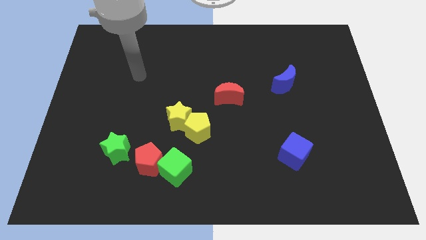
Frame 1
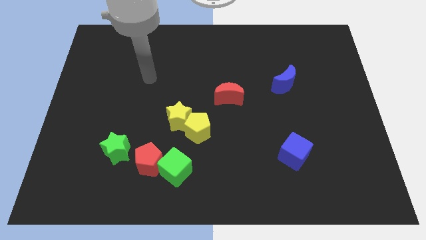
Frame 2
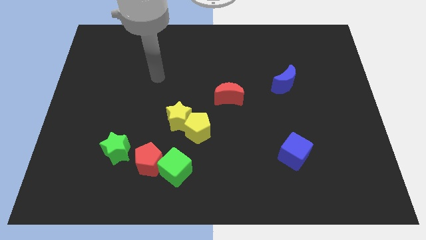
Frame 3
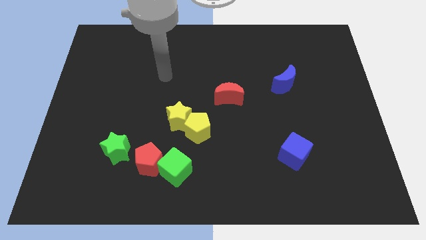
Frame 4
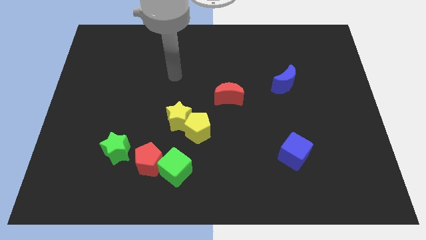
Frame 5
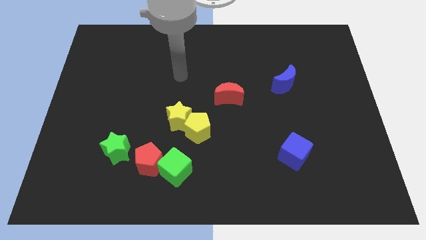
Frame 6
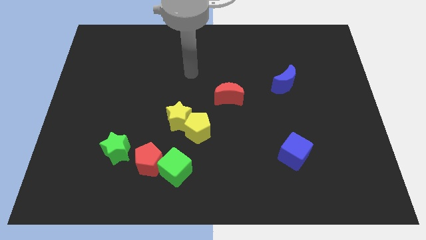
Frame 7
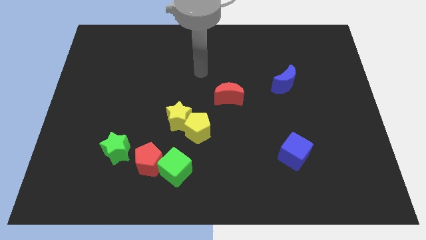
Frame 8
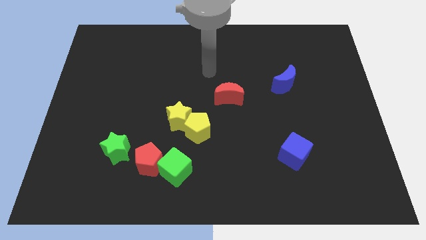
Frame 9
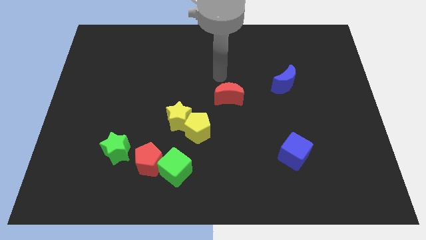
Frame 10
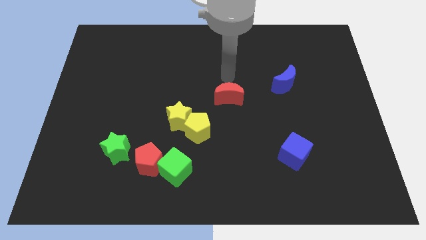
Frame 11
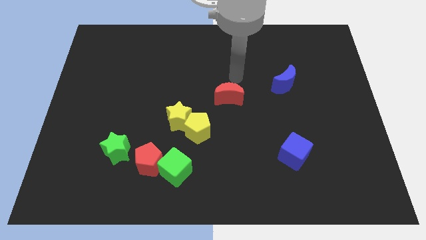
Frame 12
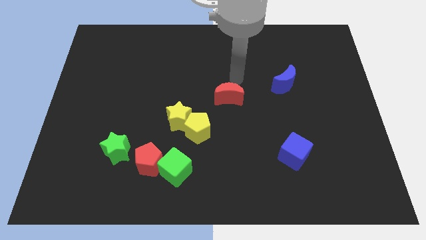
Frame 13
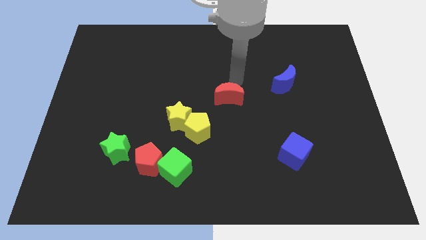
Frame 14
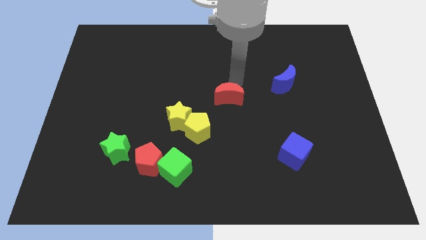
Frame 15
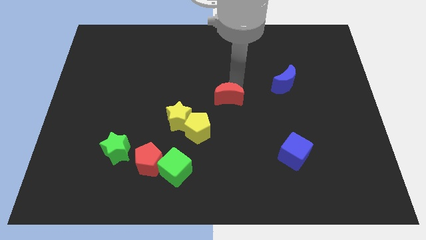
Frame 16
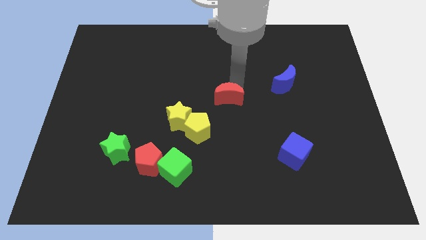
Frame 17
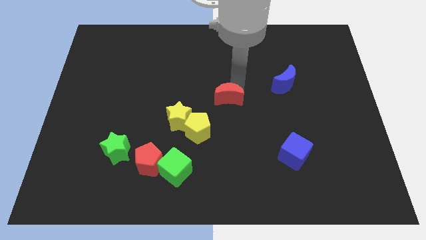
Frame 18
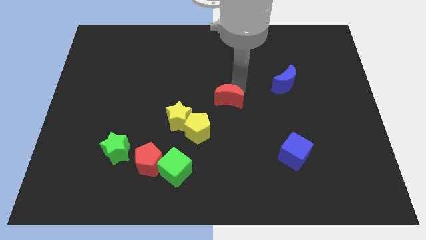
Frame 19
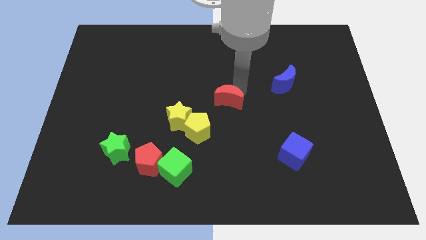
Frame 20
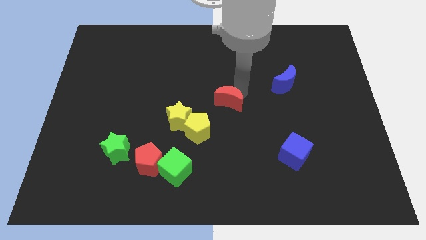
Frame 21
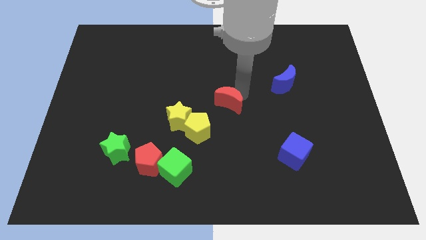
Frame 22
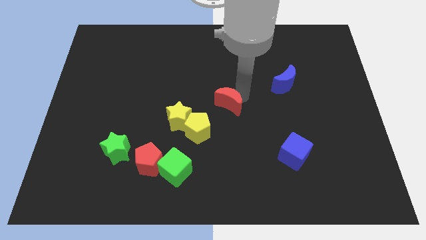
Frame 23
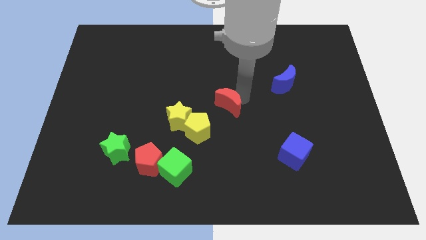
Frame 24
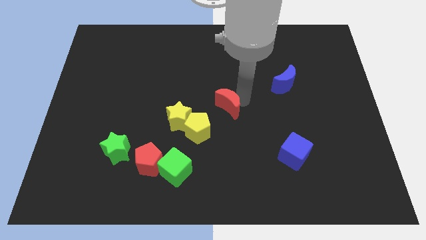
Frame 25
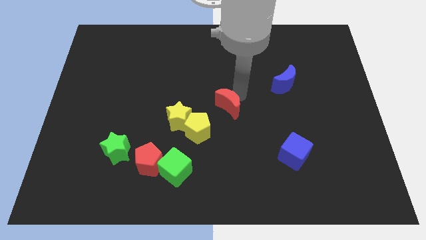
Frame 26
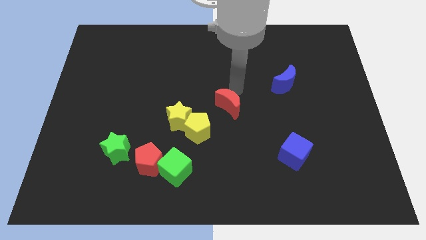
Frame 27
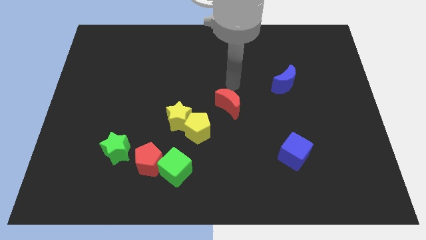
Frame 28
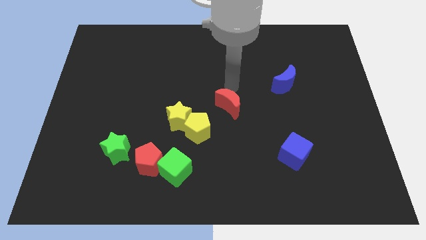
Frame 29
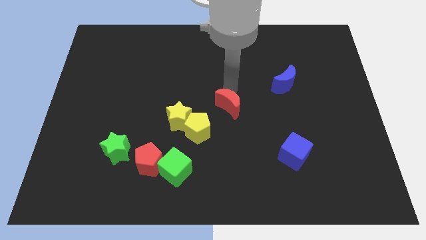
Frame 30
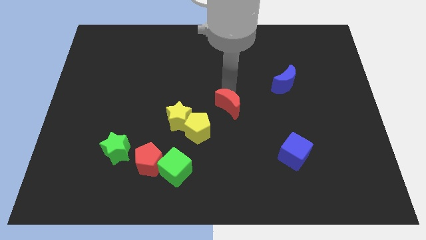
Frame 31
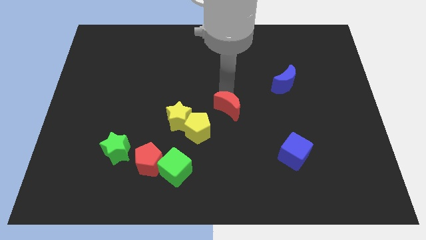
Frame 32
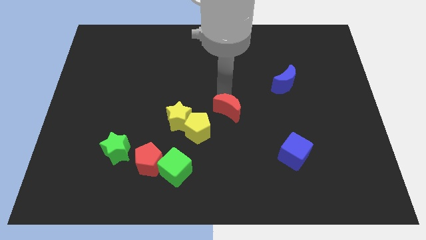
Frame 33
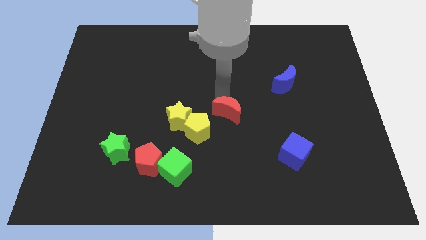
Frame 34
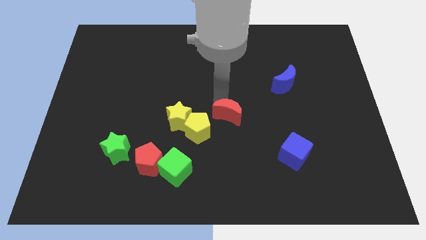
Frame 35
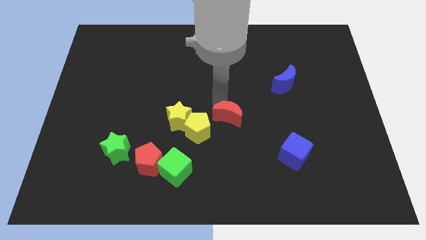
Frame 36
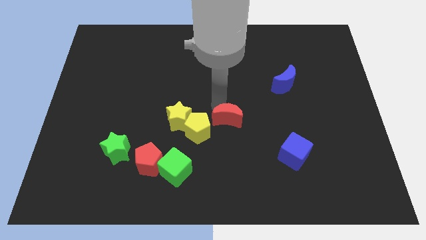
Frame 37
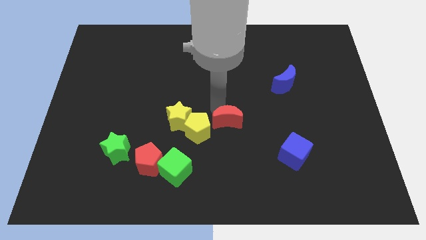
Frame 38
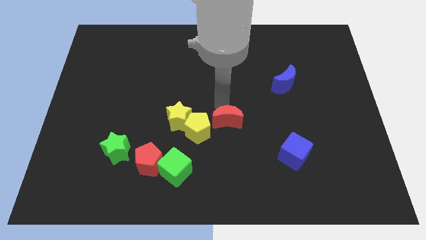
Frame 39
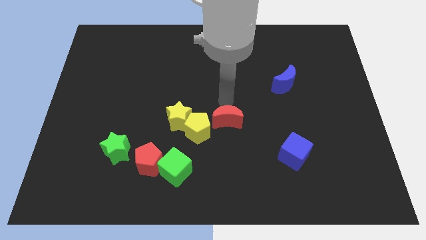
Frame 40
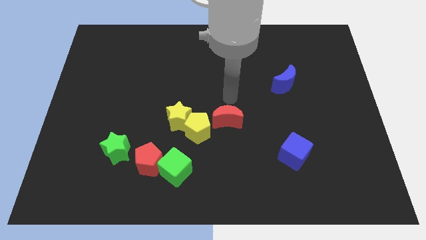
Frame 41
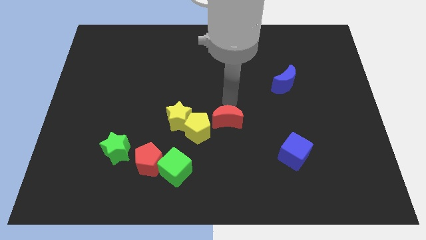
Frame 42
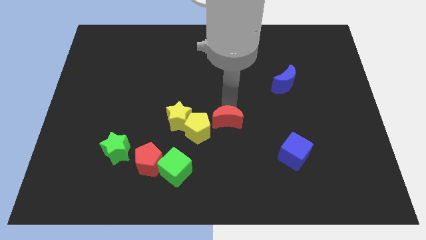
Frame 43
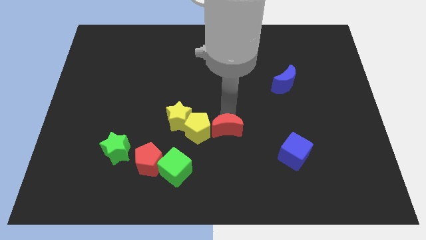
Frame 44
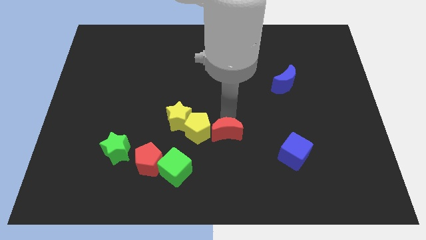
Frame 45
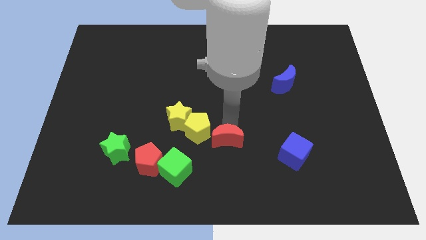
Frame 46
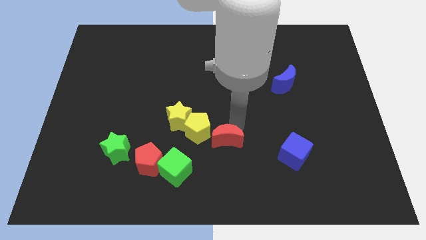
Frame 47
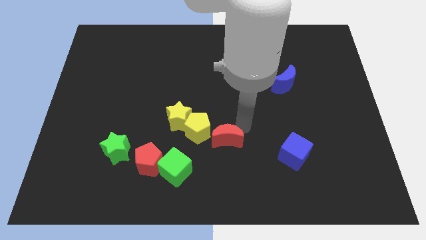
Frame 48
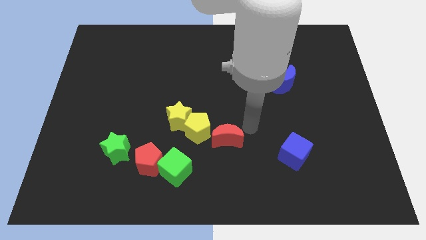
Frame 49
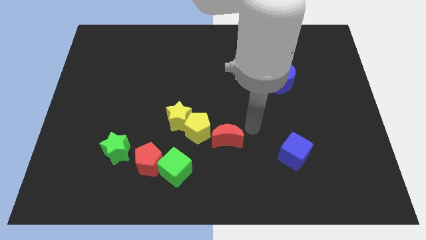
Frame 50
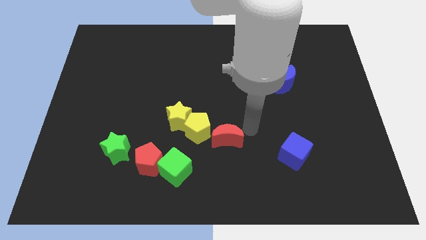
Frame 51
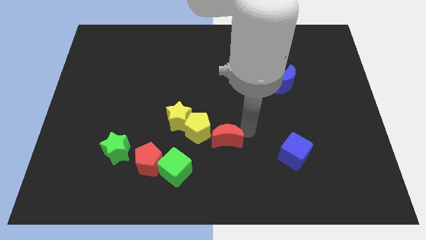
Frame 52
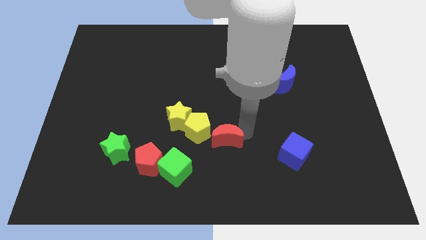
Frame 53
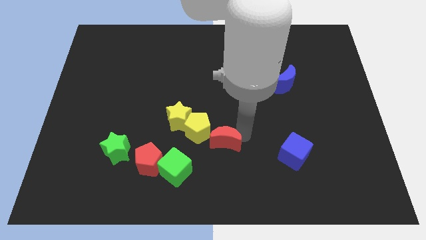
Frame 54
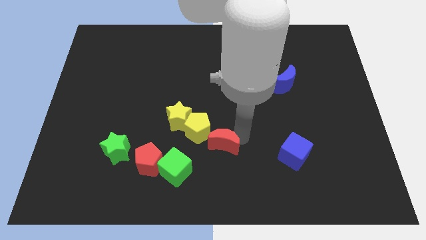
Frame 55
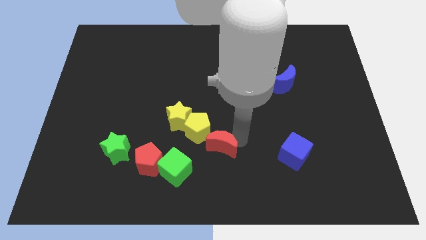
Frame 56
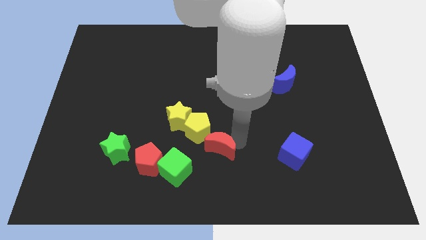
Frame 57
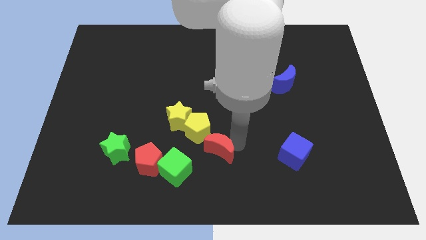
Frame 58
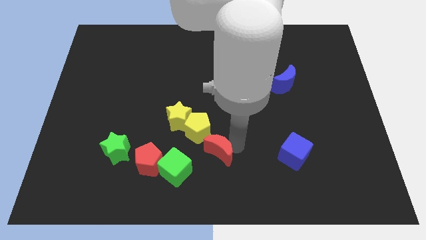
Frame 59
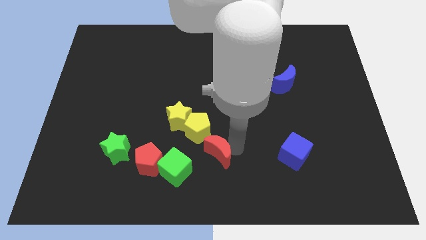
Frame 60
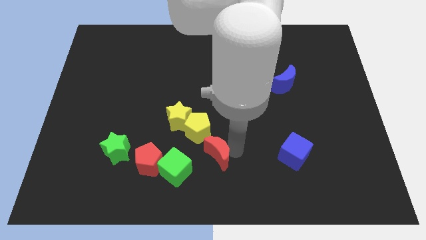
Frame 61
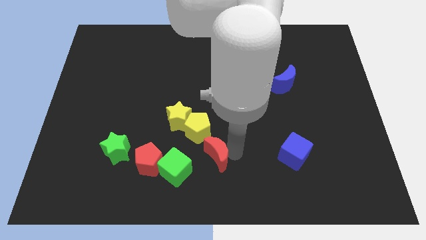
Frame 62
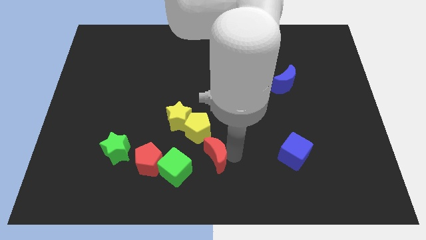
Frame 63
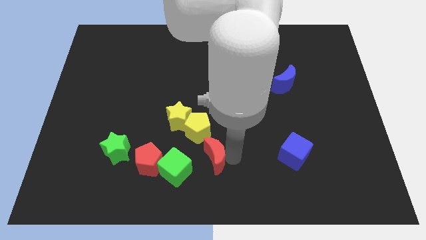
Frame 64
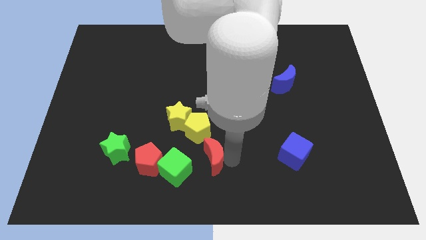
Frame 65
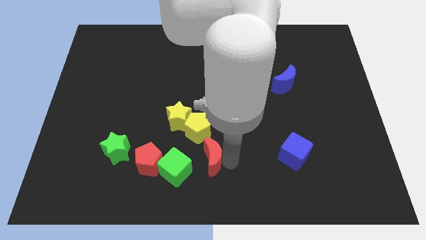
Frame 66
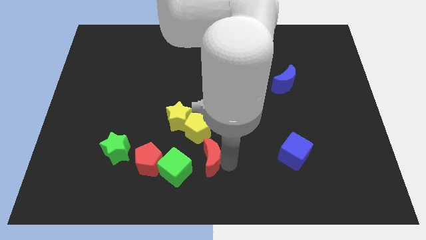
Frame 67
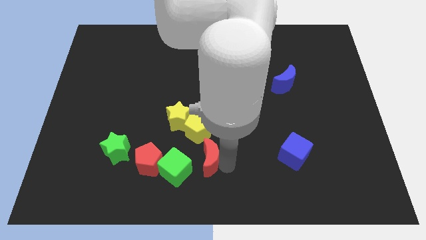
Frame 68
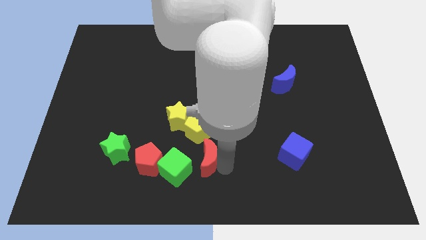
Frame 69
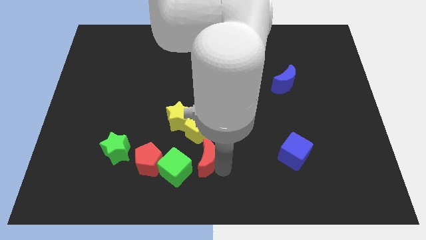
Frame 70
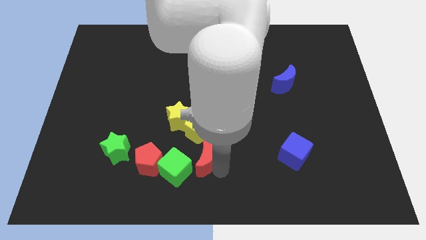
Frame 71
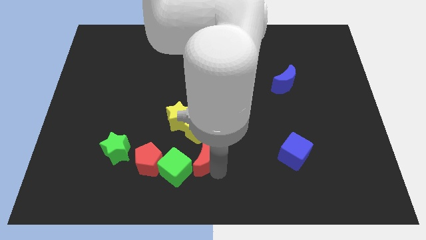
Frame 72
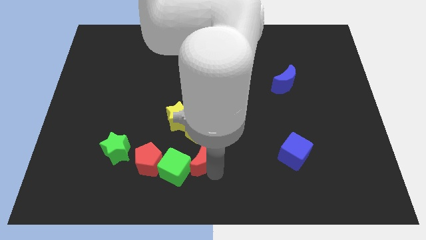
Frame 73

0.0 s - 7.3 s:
put the red moon close to the green cube
